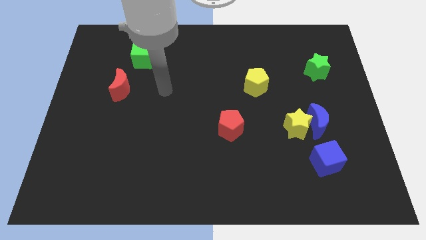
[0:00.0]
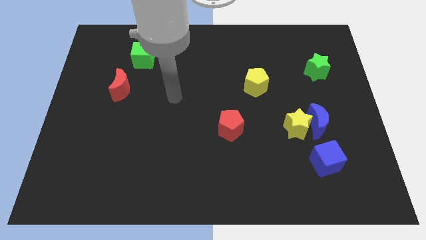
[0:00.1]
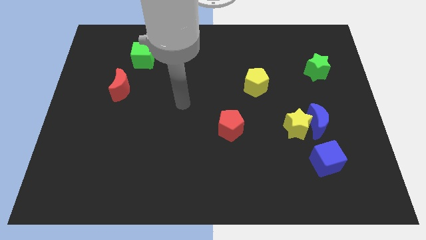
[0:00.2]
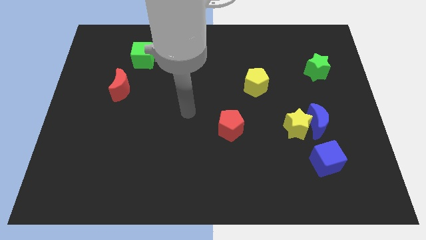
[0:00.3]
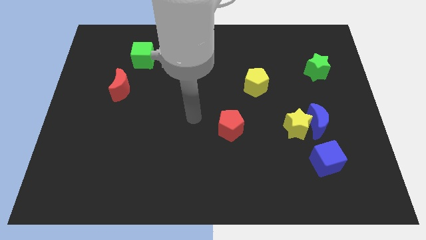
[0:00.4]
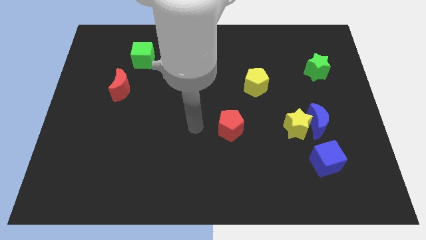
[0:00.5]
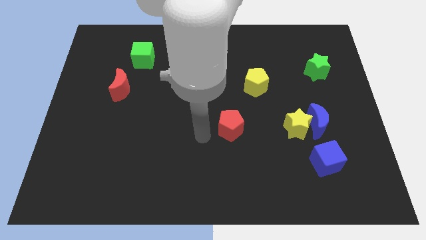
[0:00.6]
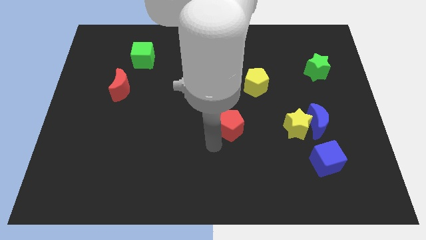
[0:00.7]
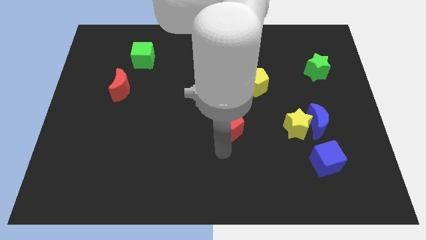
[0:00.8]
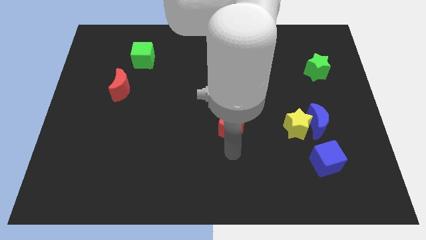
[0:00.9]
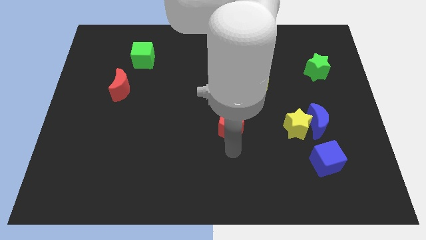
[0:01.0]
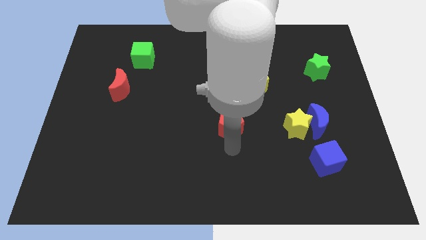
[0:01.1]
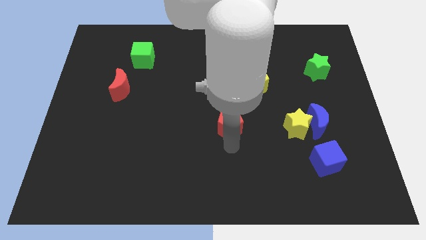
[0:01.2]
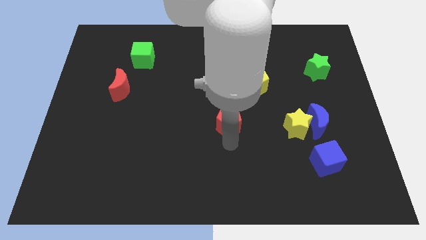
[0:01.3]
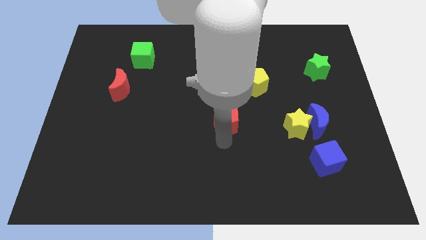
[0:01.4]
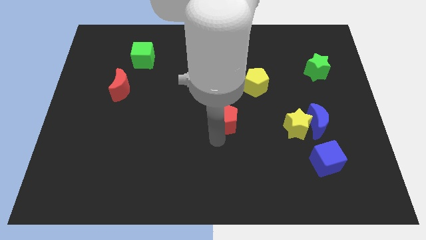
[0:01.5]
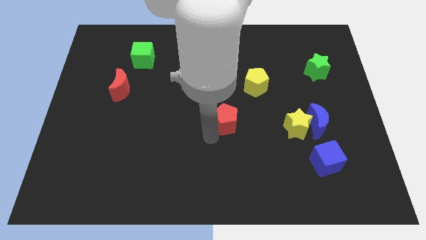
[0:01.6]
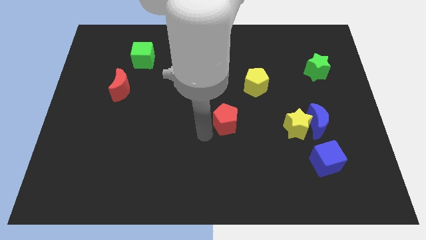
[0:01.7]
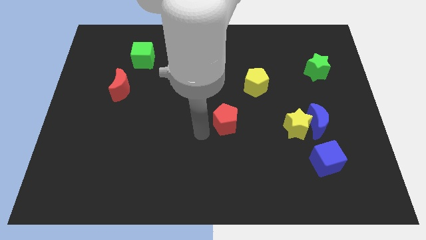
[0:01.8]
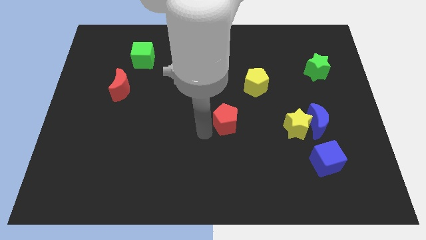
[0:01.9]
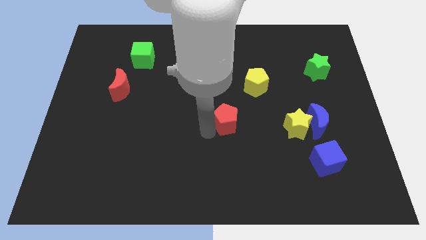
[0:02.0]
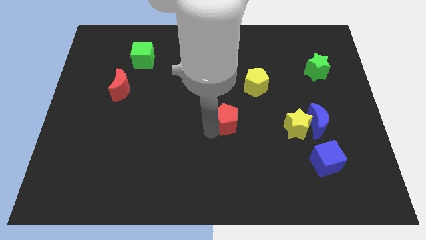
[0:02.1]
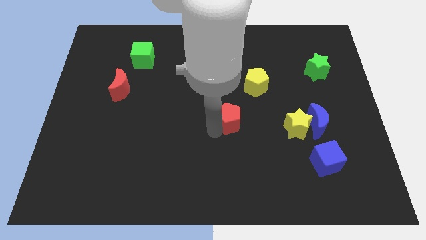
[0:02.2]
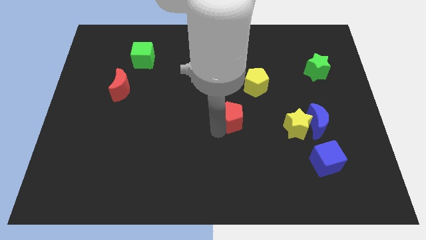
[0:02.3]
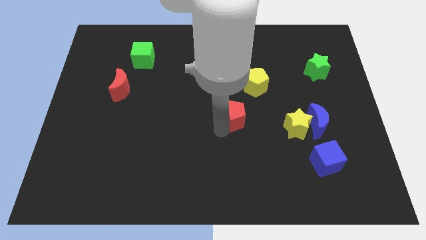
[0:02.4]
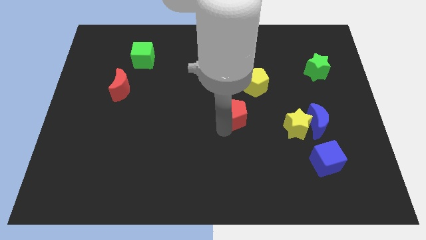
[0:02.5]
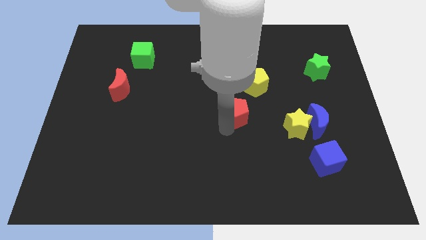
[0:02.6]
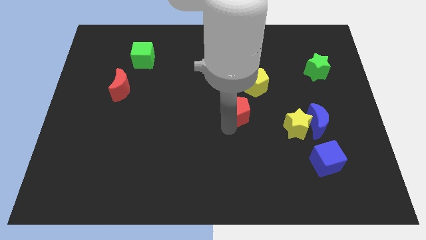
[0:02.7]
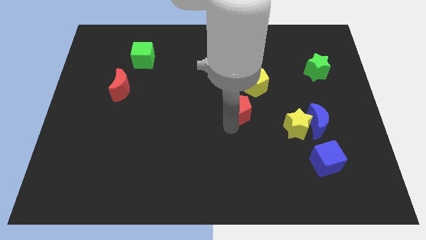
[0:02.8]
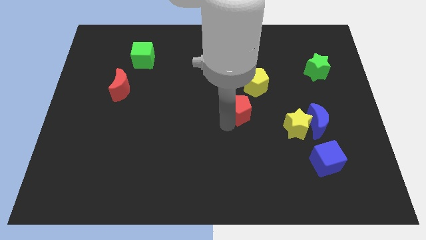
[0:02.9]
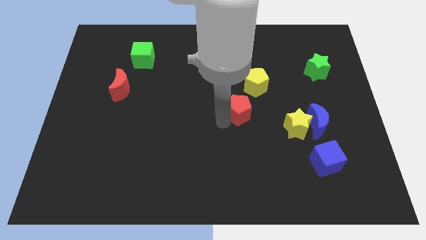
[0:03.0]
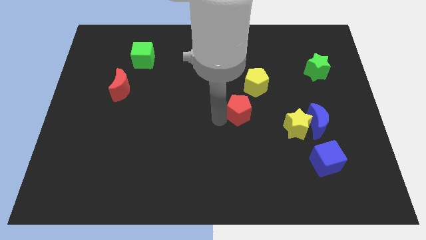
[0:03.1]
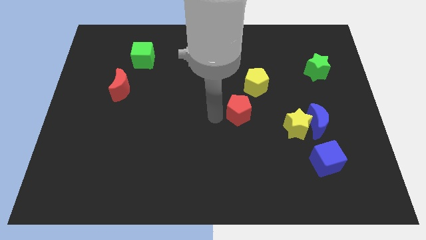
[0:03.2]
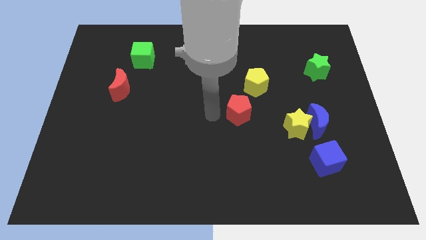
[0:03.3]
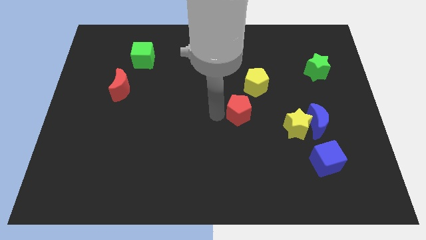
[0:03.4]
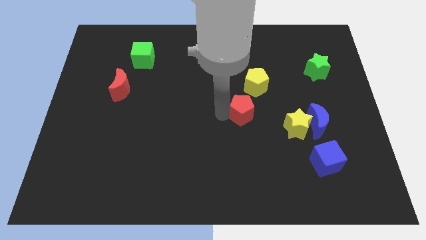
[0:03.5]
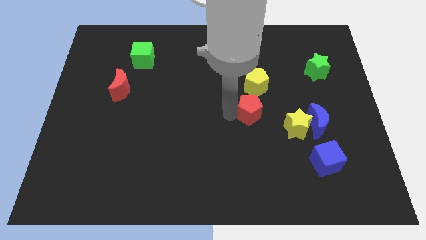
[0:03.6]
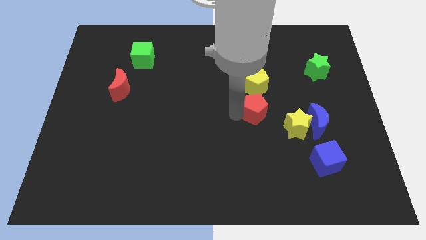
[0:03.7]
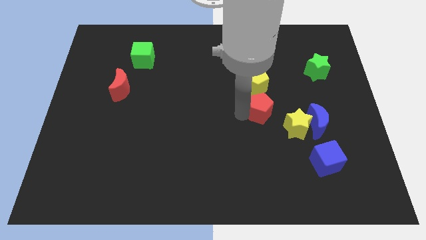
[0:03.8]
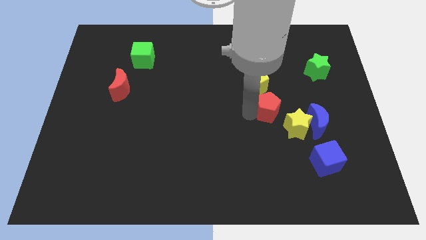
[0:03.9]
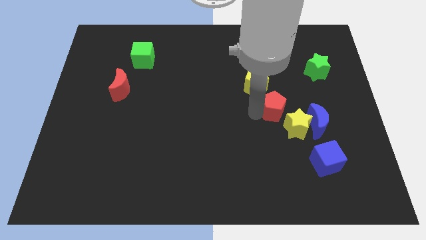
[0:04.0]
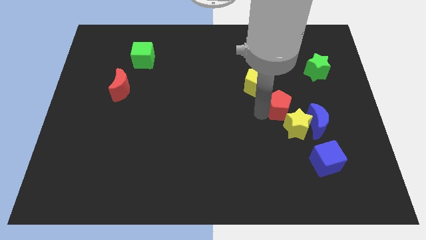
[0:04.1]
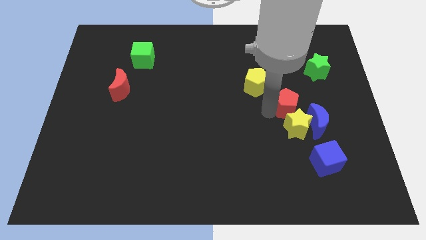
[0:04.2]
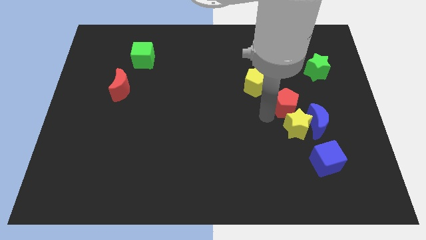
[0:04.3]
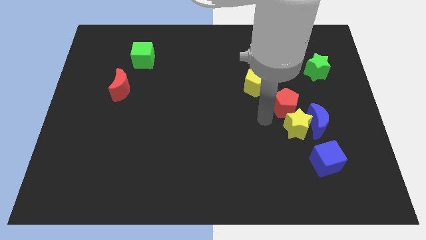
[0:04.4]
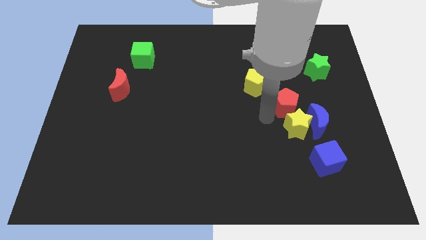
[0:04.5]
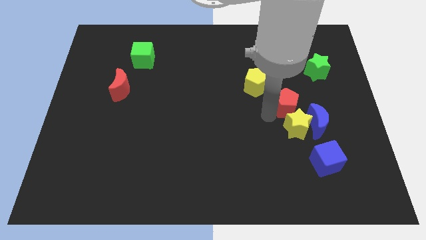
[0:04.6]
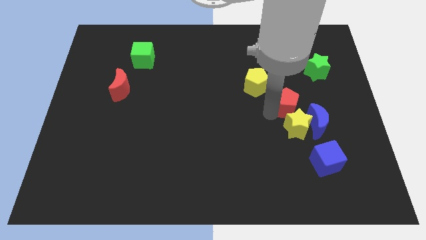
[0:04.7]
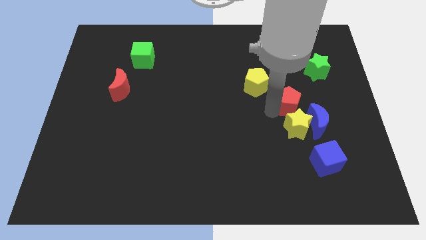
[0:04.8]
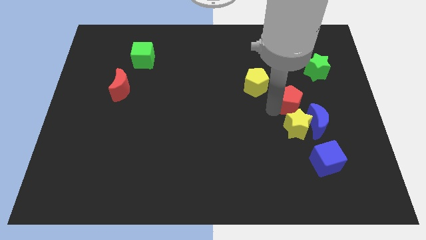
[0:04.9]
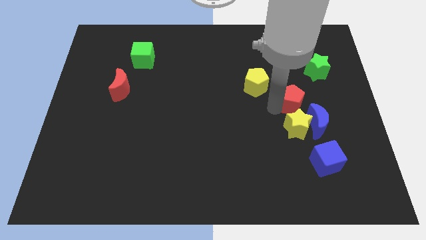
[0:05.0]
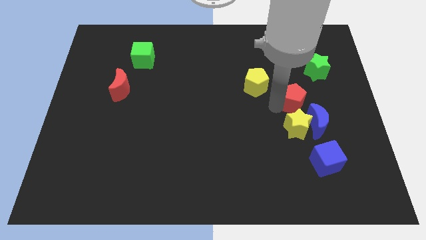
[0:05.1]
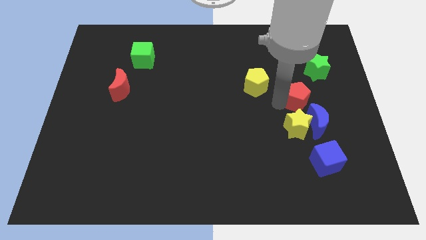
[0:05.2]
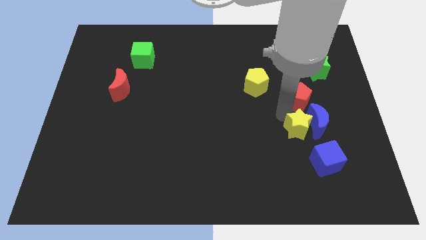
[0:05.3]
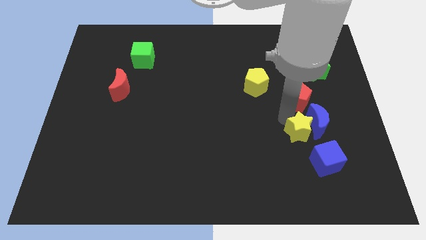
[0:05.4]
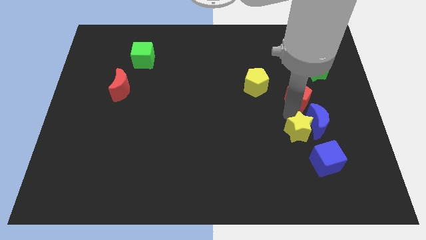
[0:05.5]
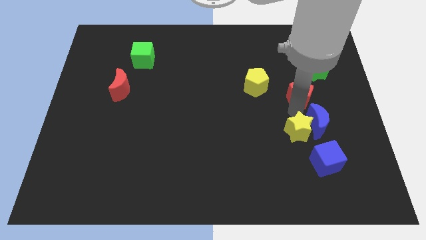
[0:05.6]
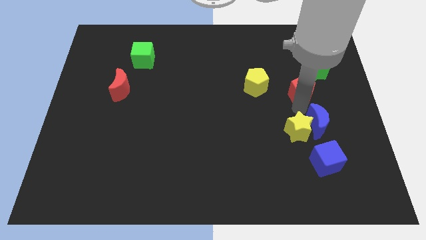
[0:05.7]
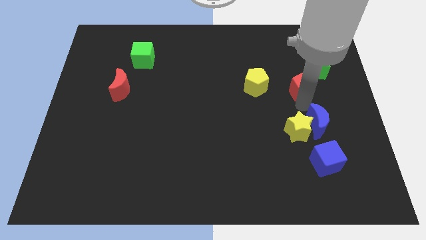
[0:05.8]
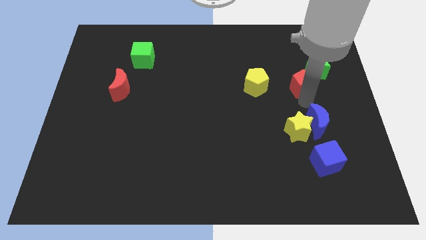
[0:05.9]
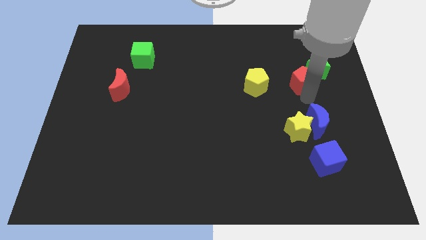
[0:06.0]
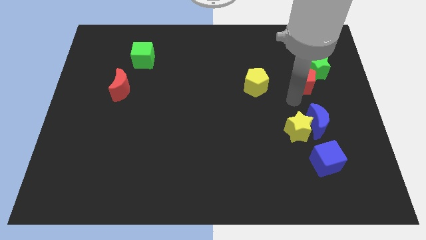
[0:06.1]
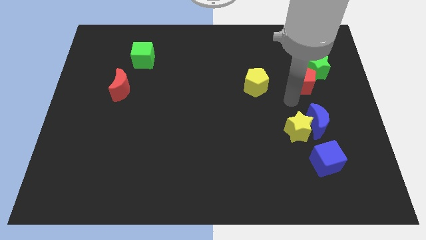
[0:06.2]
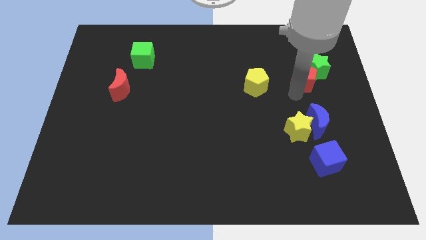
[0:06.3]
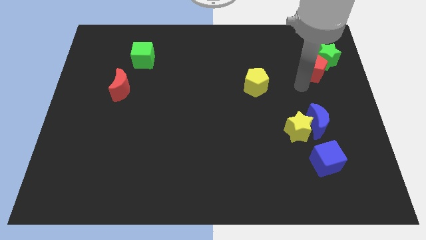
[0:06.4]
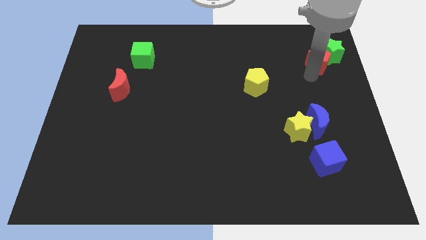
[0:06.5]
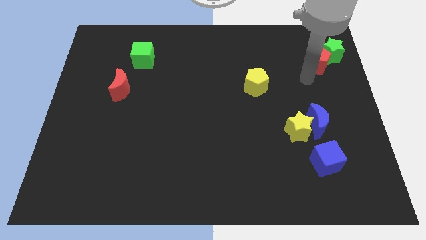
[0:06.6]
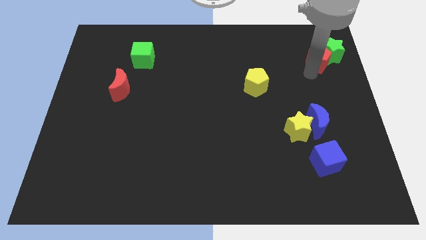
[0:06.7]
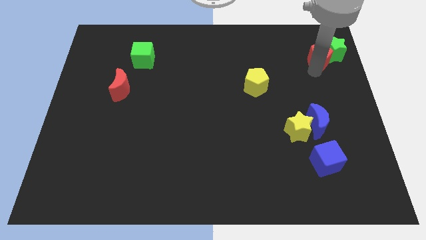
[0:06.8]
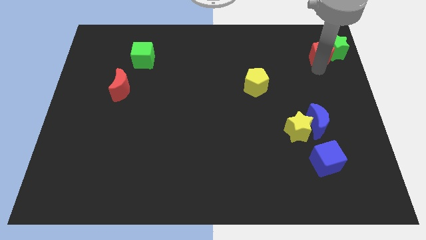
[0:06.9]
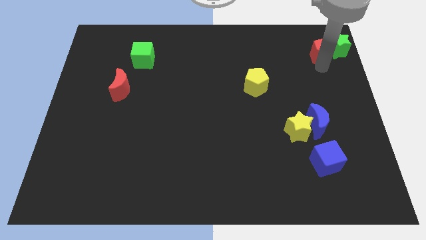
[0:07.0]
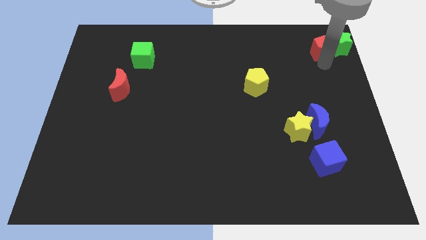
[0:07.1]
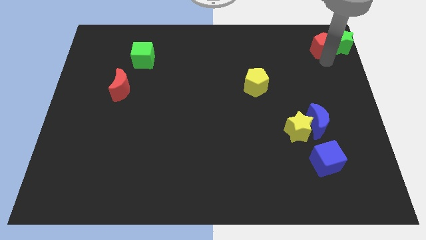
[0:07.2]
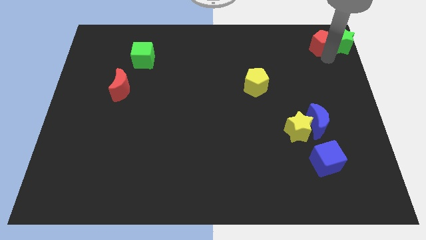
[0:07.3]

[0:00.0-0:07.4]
push the red pentagon to the upper right corner
